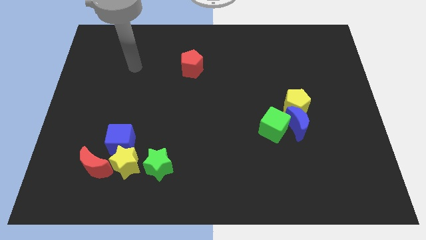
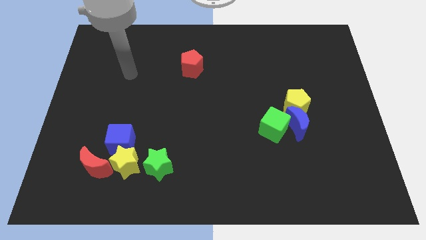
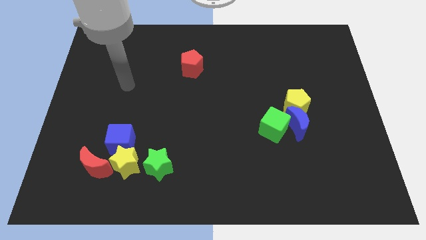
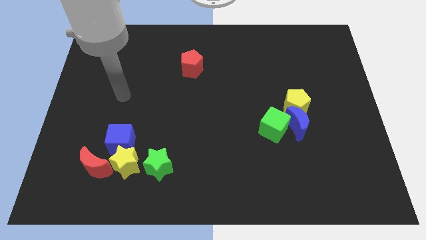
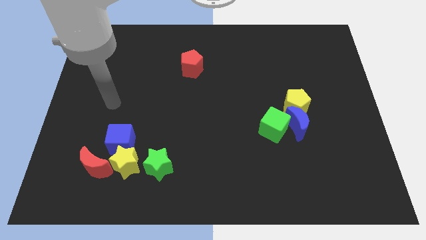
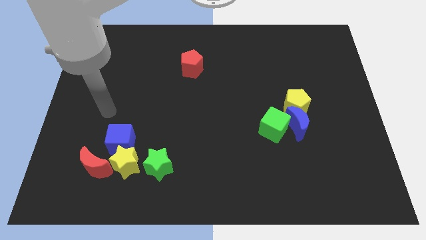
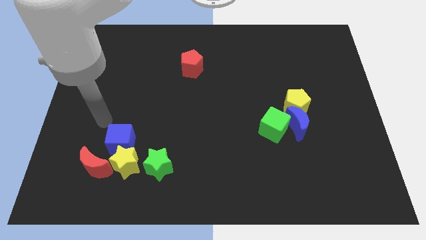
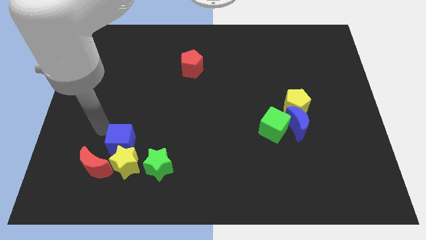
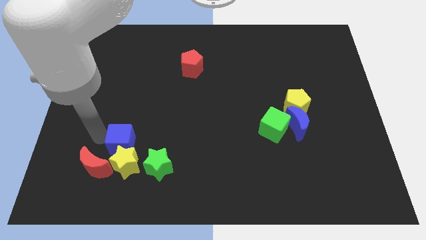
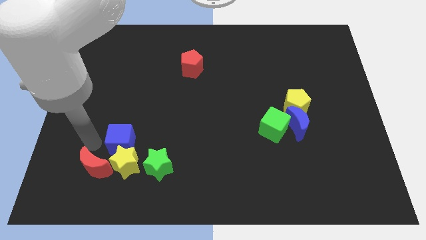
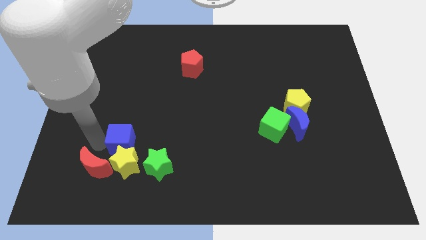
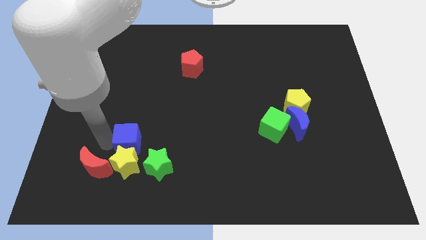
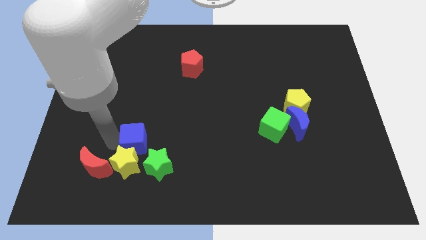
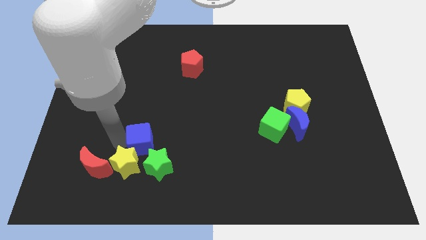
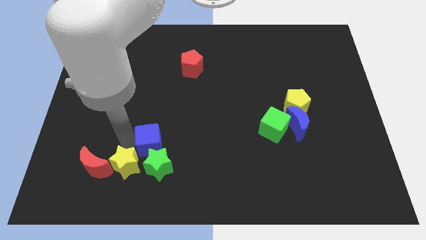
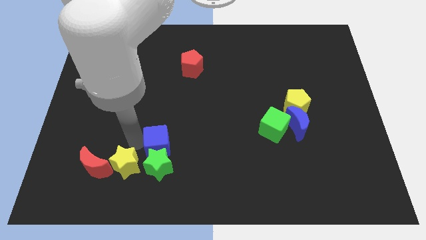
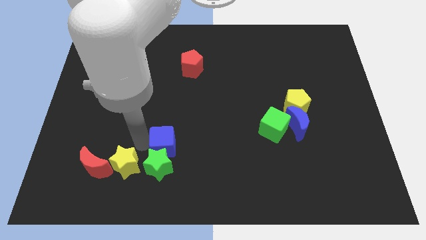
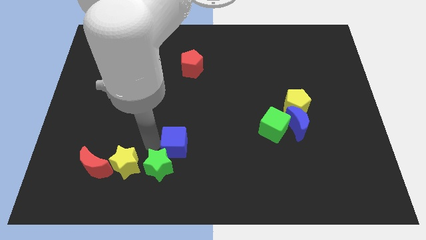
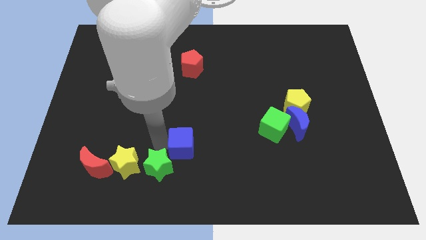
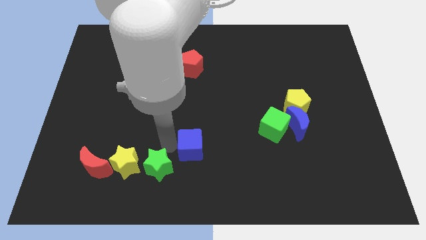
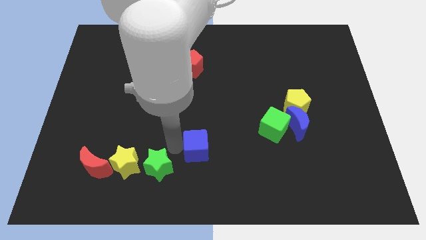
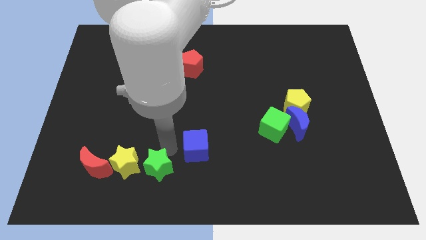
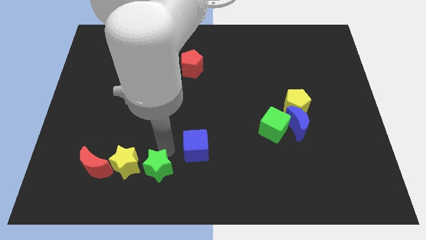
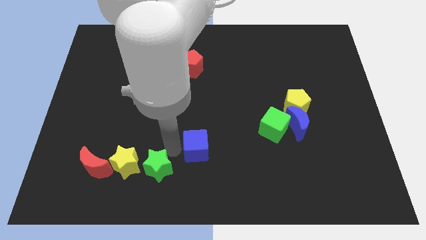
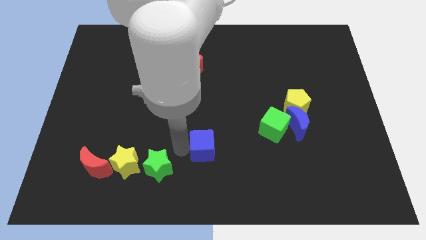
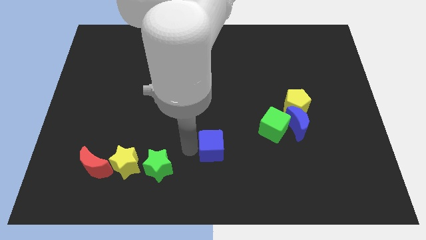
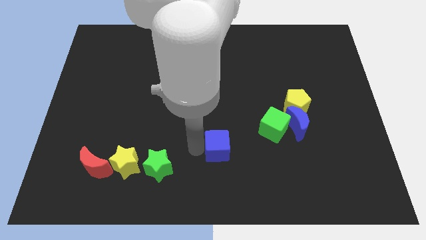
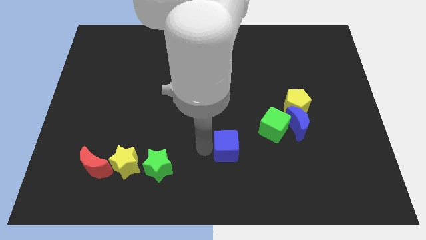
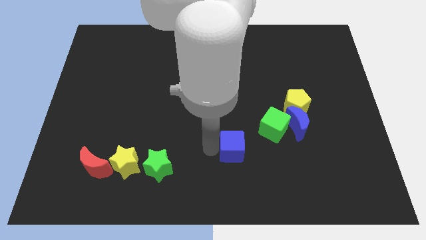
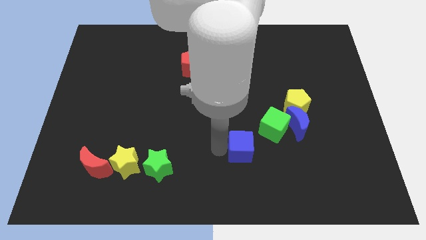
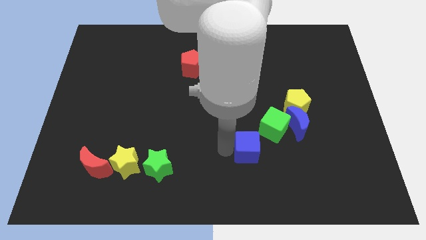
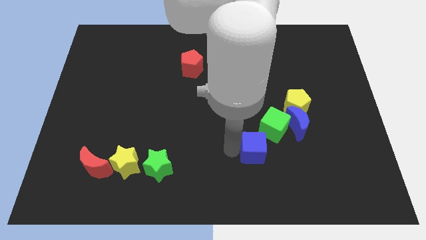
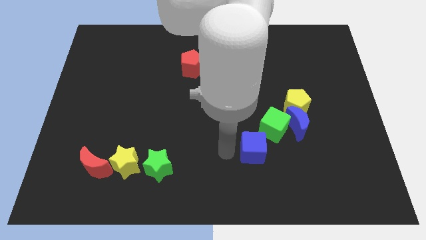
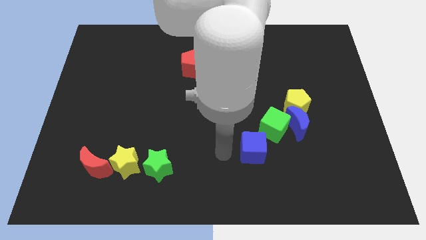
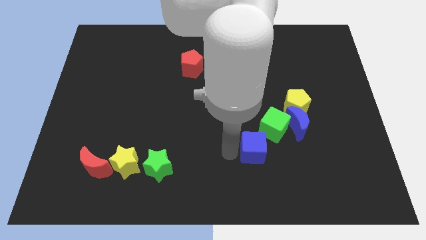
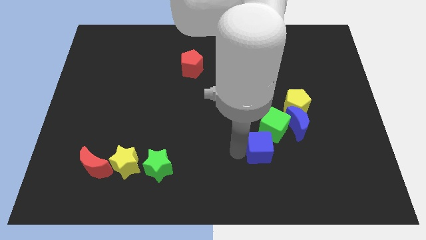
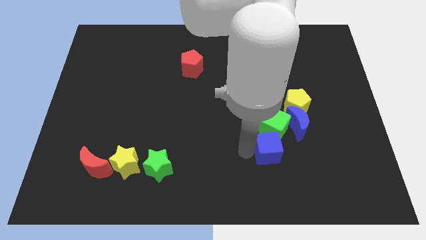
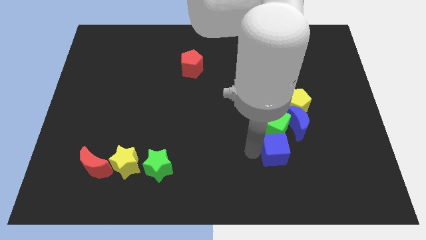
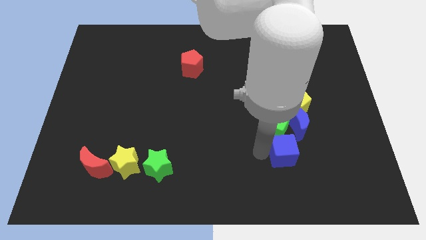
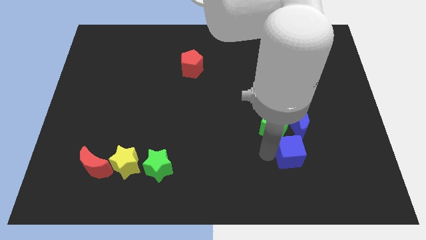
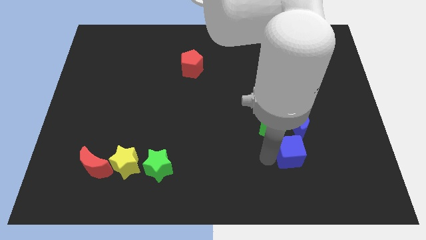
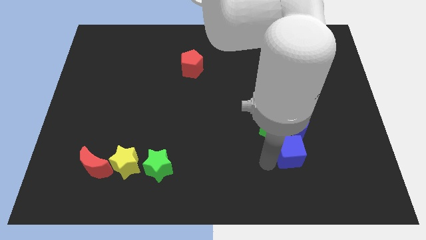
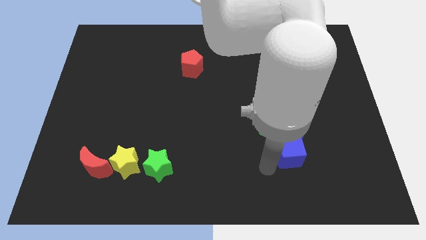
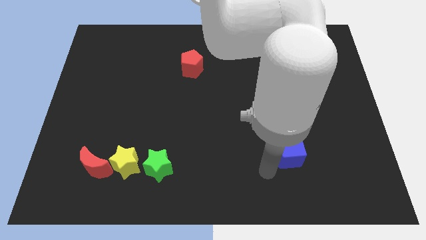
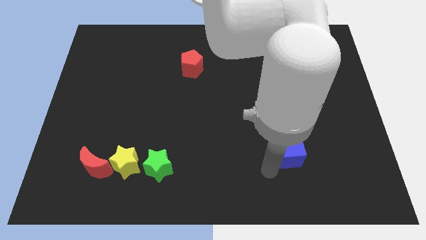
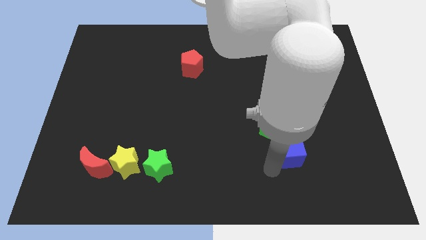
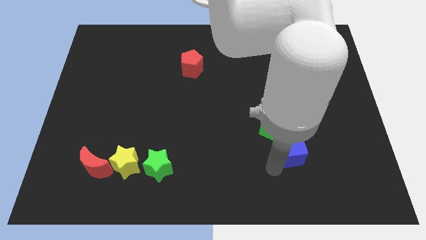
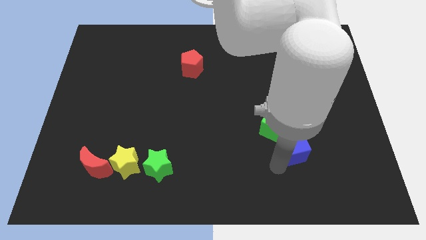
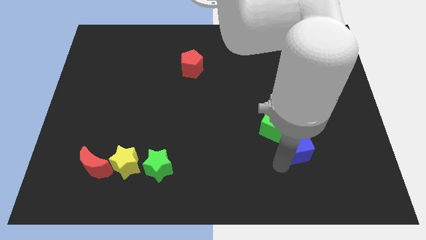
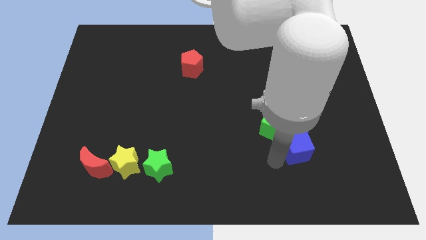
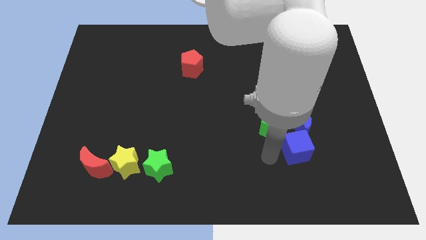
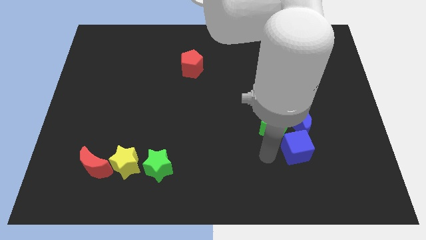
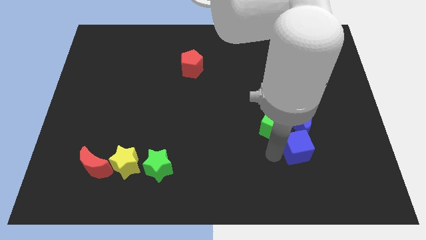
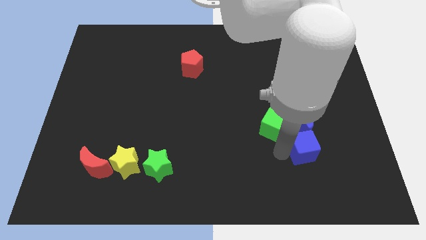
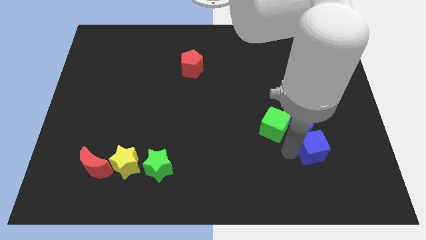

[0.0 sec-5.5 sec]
push the blue cube to the bottom right side of the blue moon

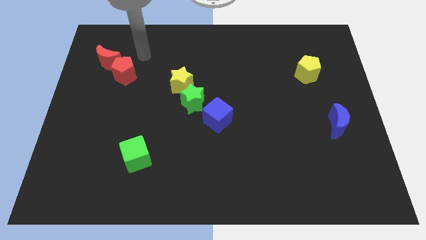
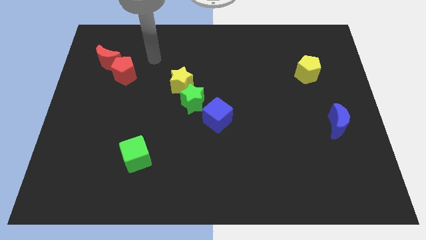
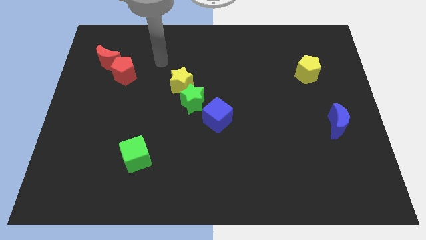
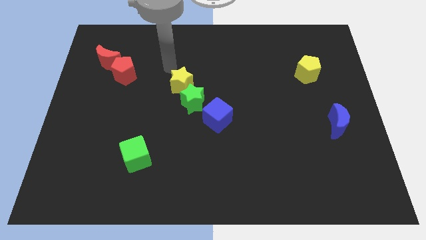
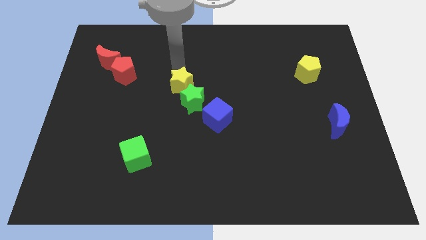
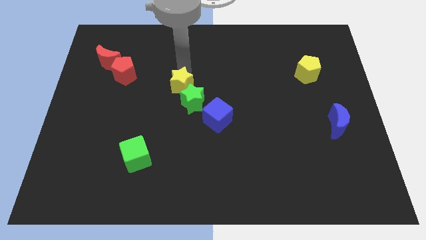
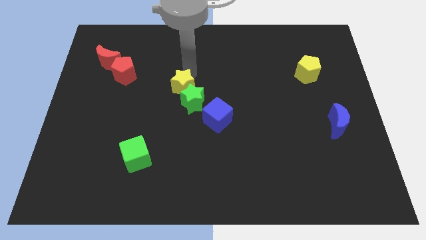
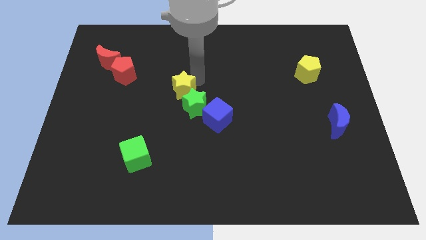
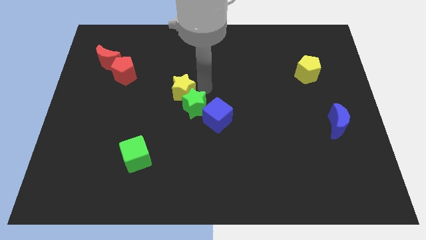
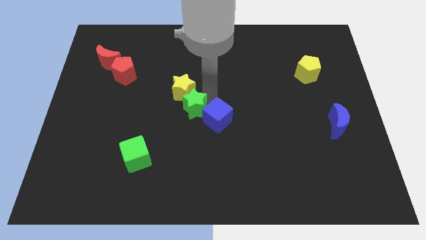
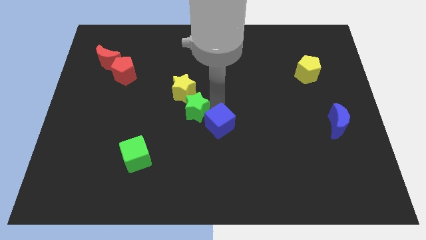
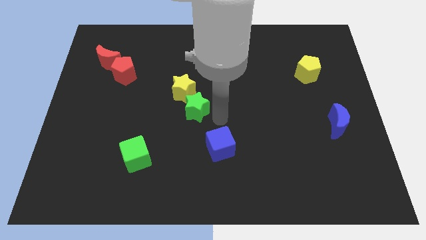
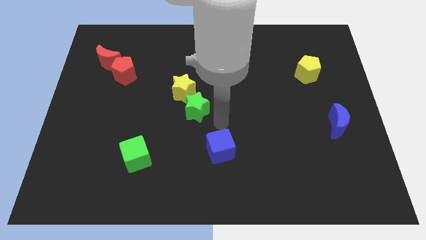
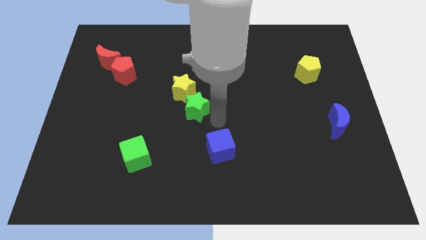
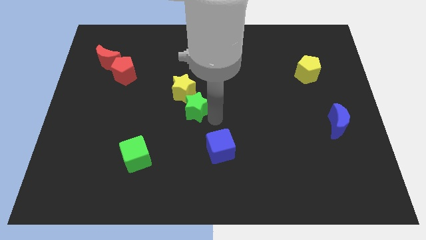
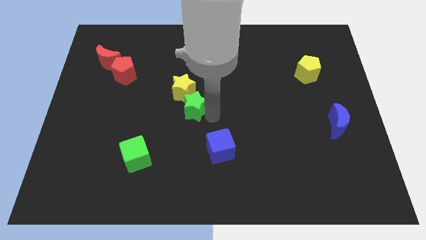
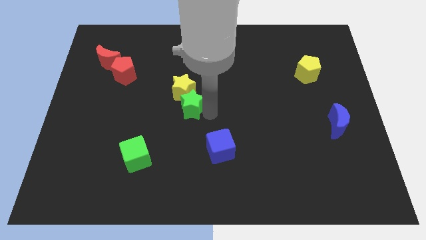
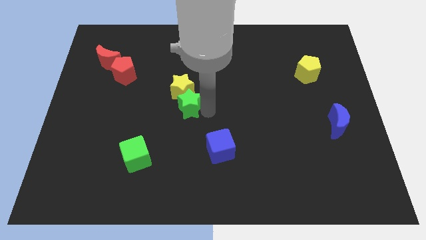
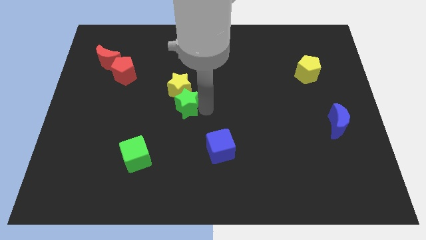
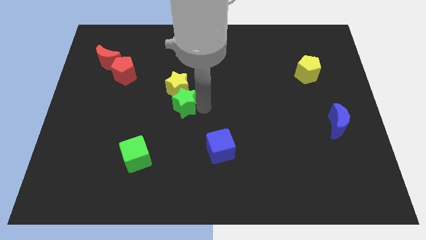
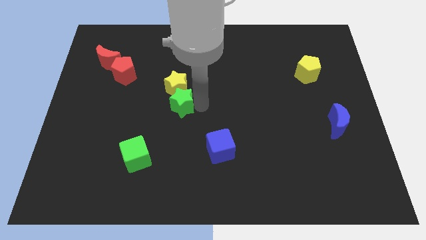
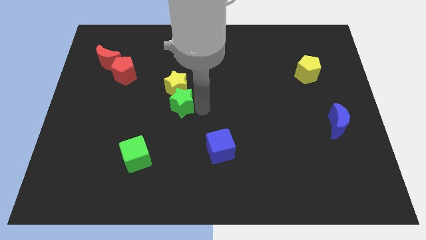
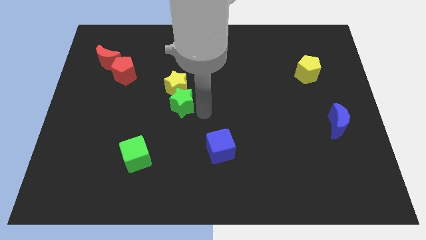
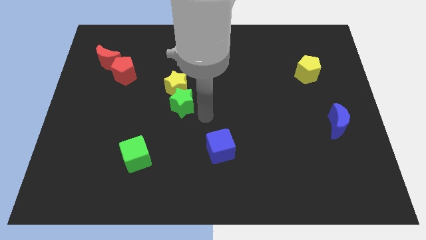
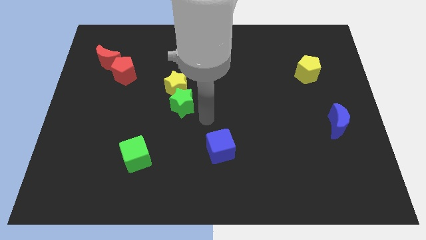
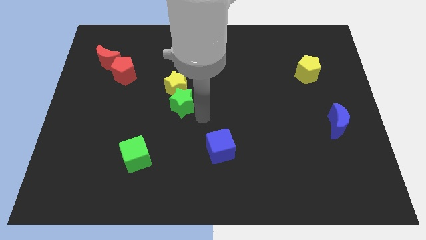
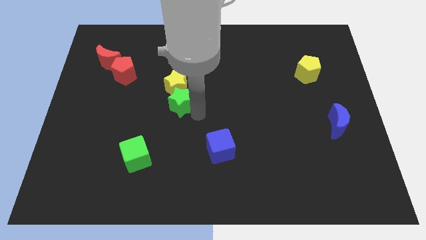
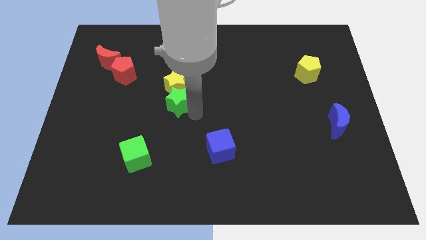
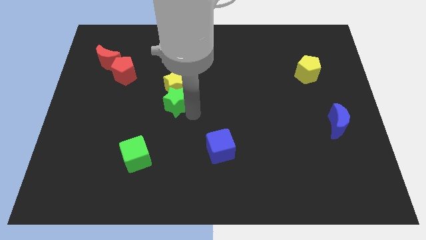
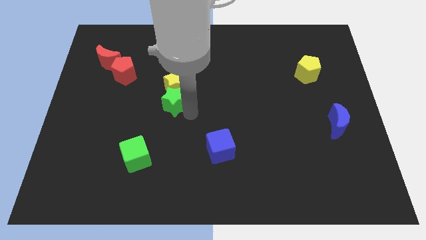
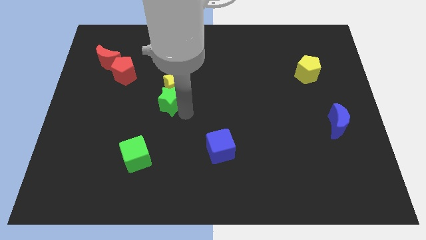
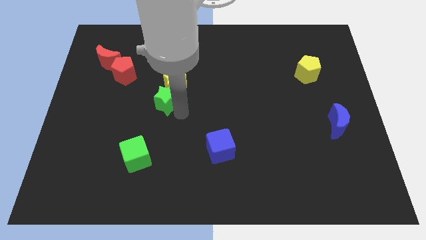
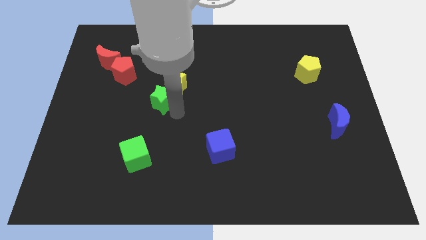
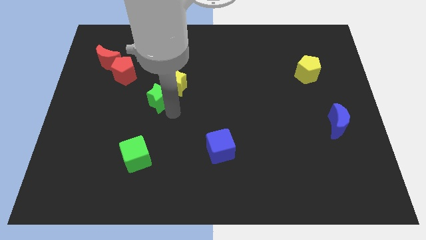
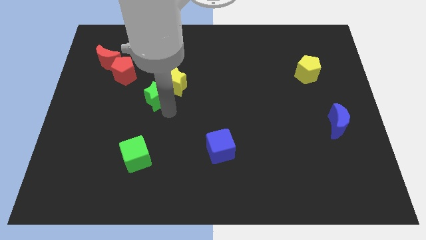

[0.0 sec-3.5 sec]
put the green star to the left of the yellow star
